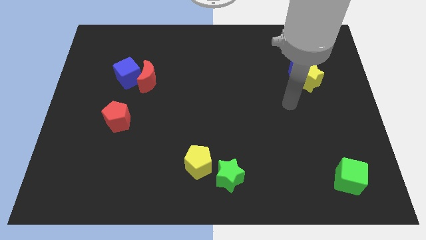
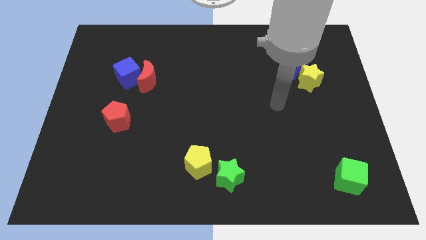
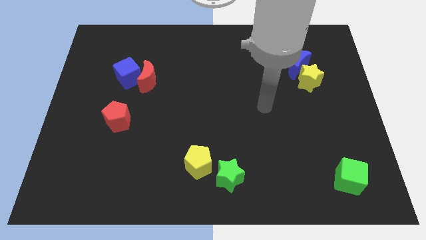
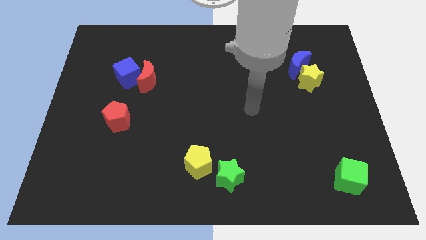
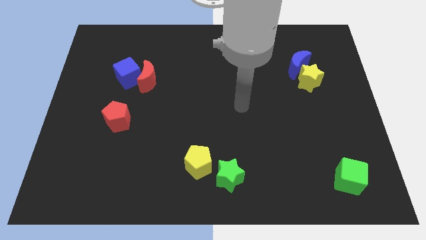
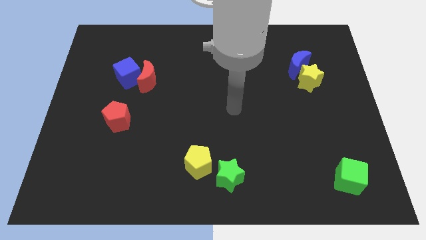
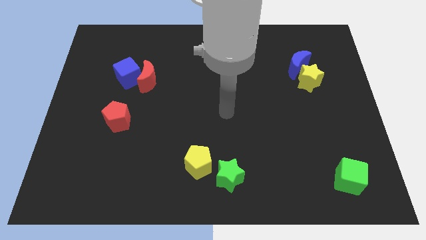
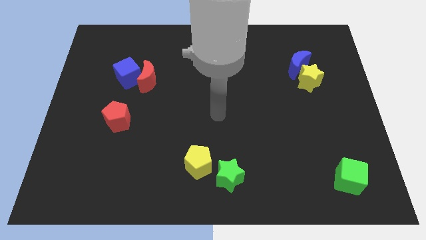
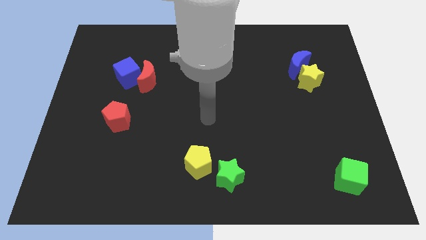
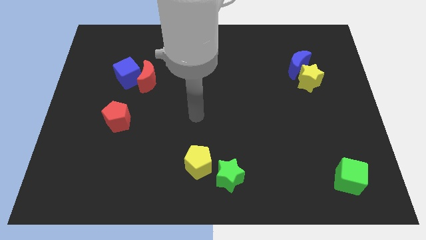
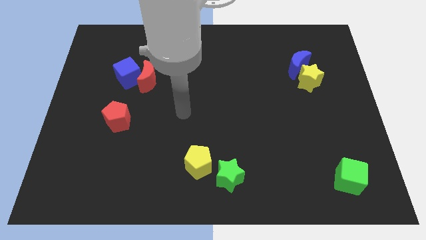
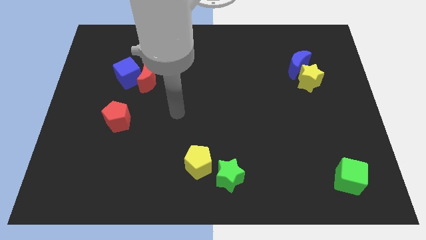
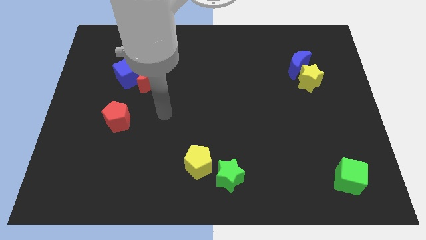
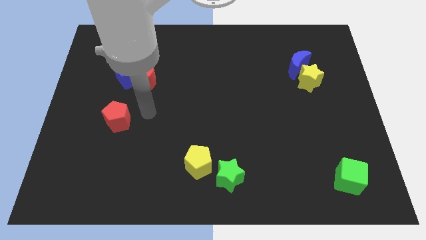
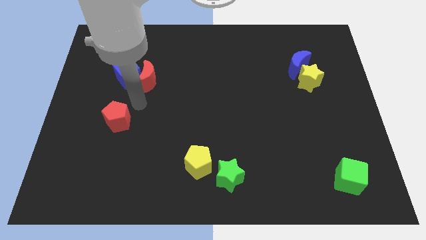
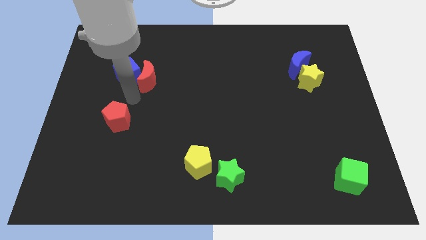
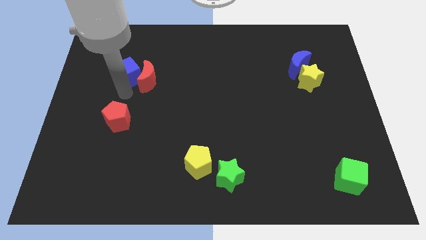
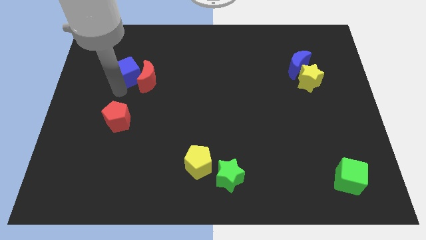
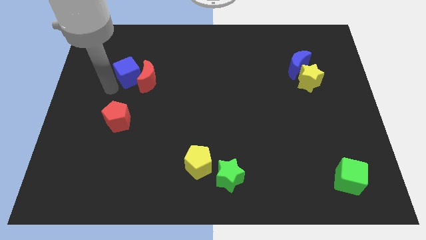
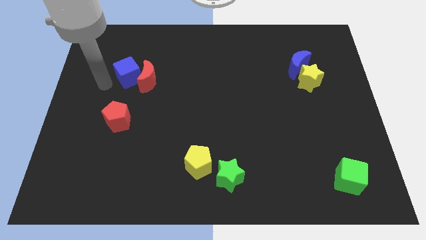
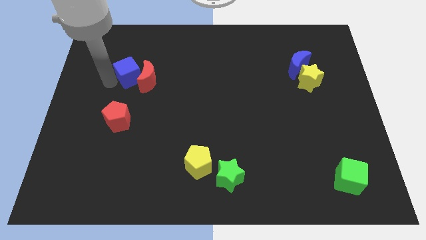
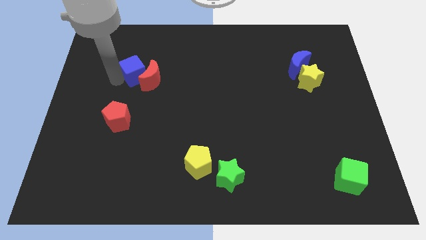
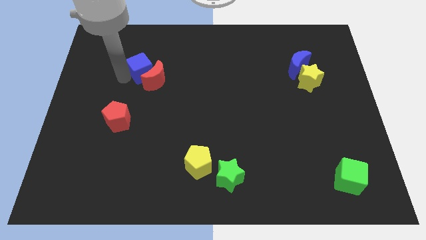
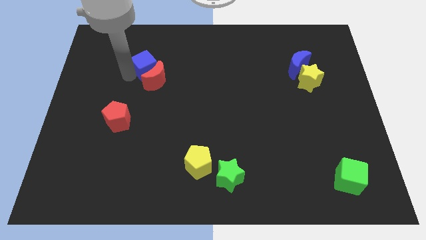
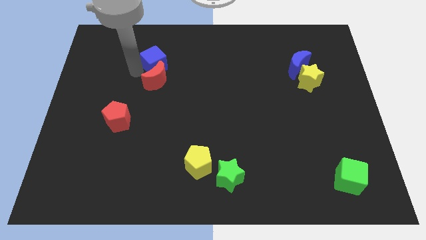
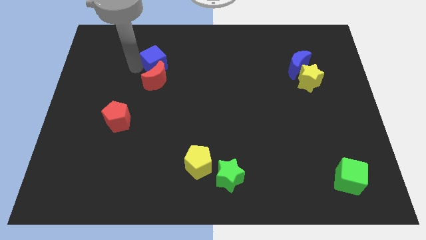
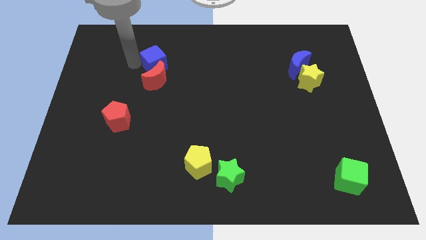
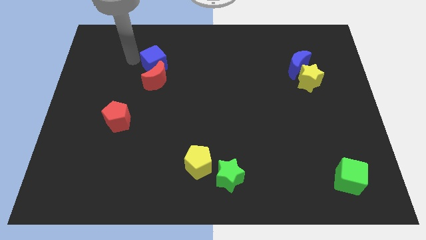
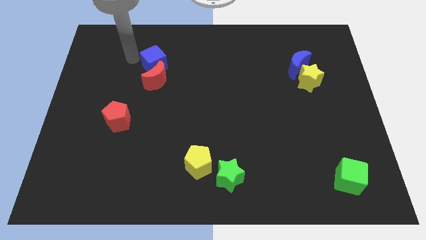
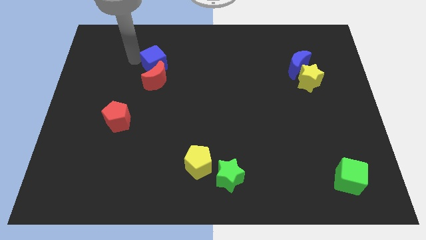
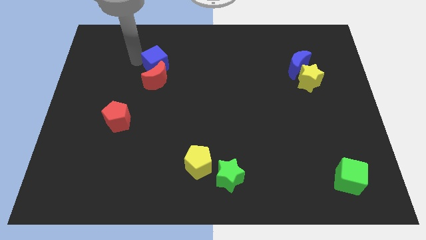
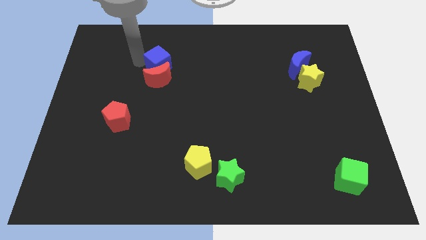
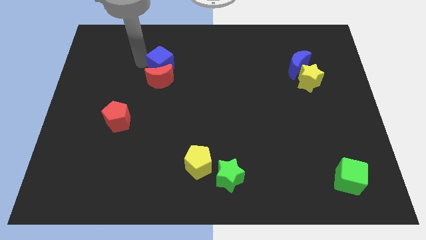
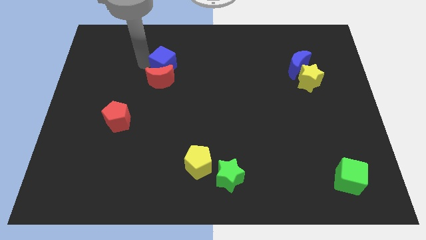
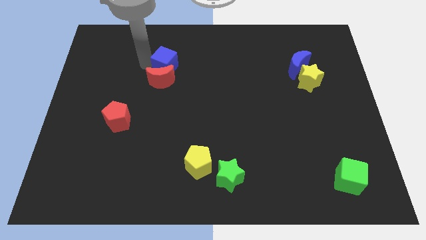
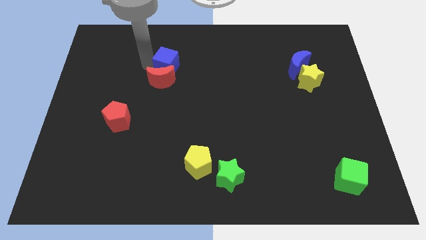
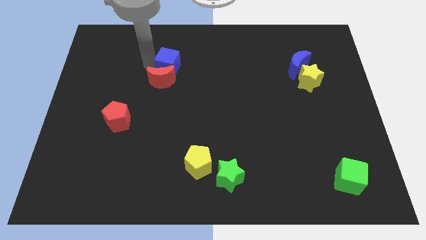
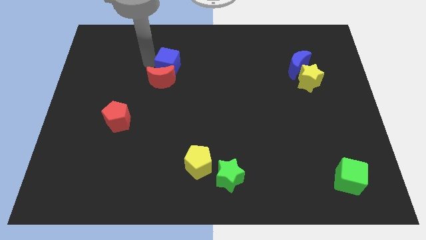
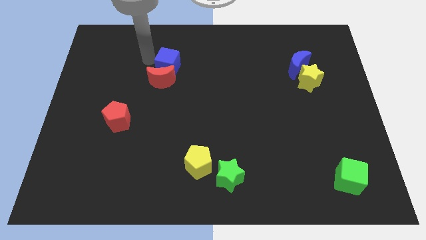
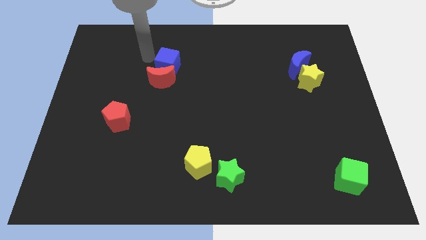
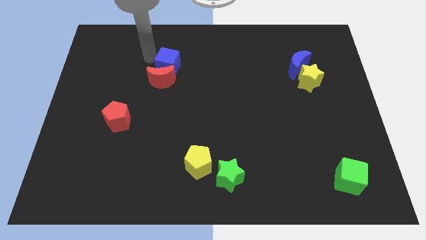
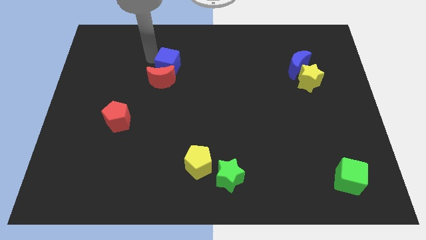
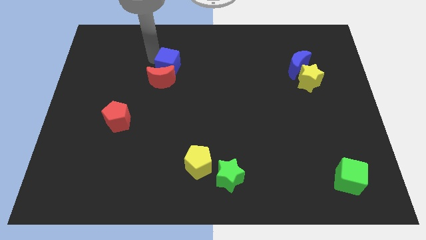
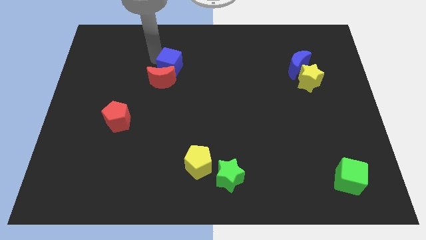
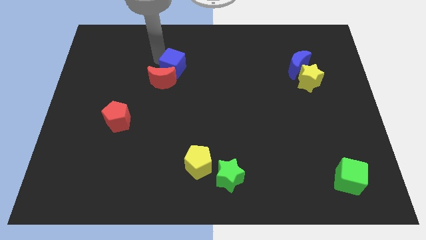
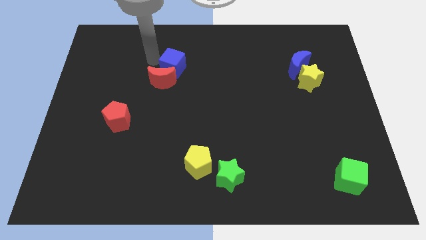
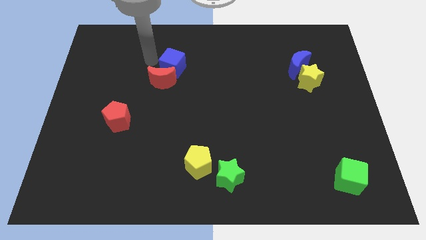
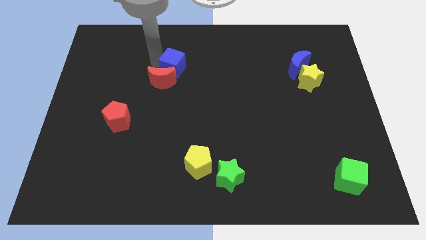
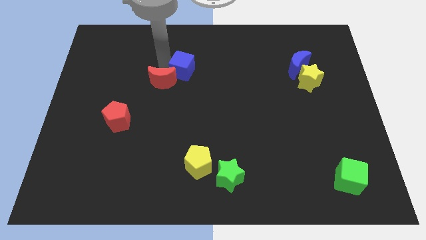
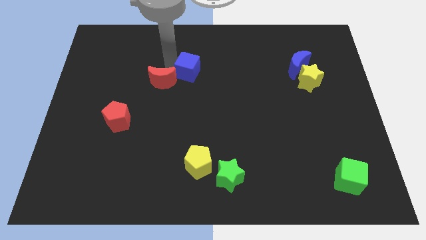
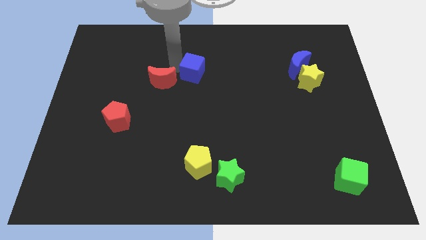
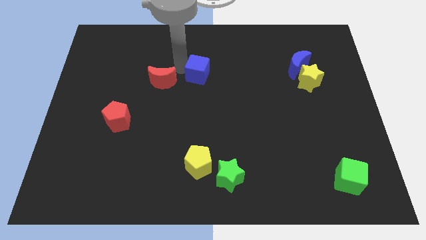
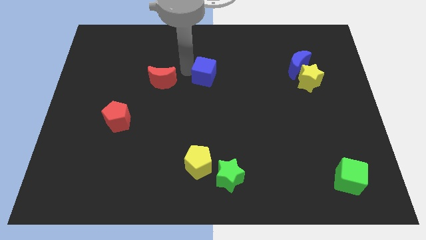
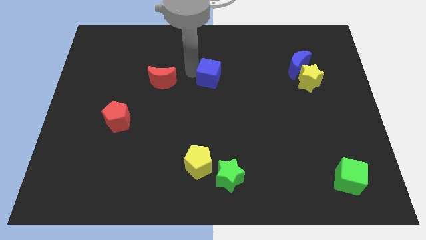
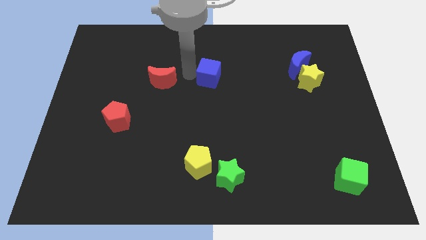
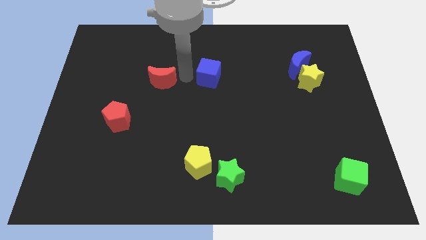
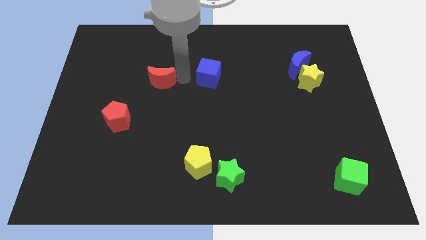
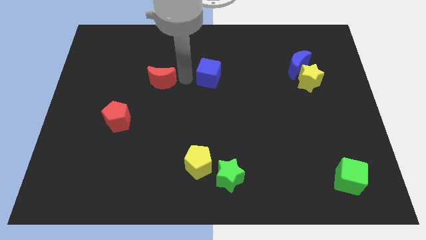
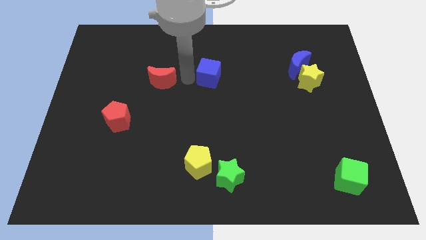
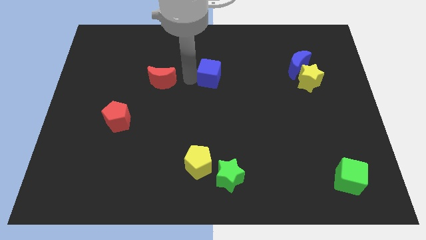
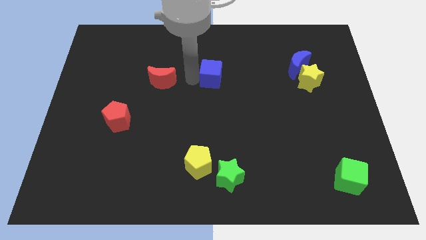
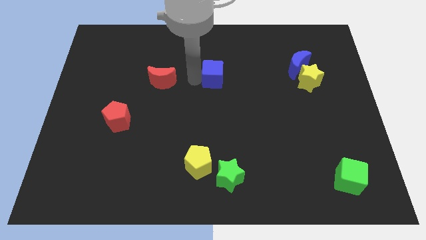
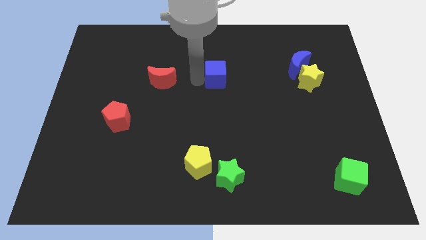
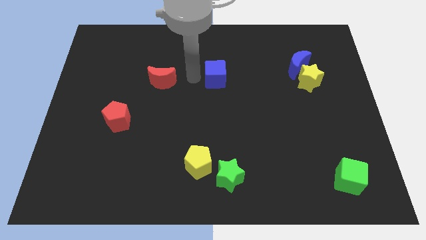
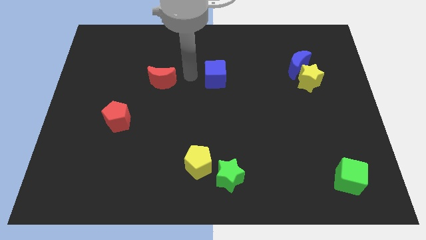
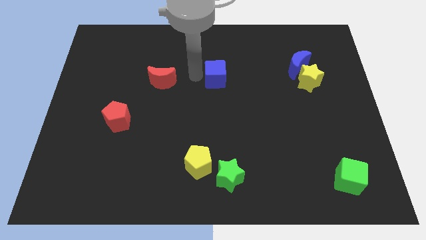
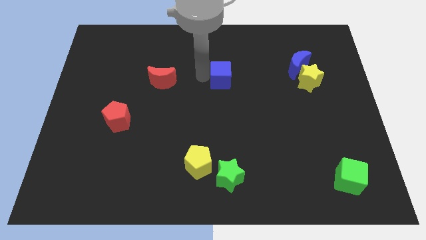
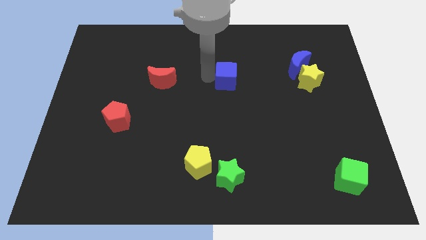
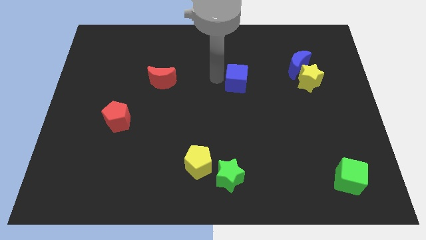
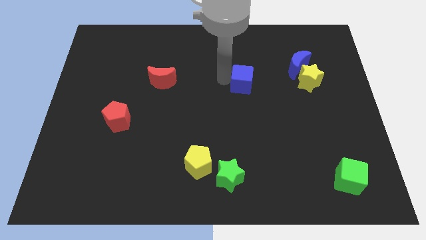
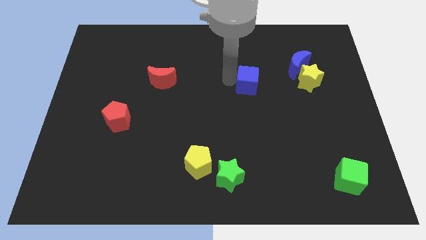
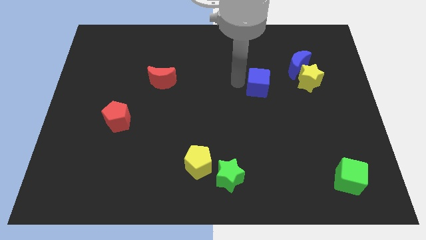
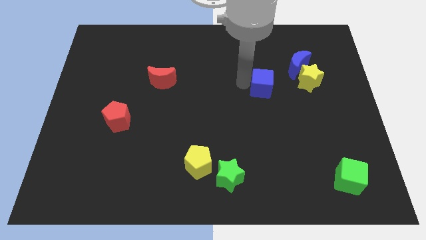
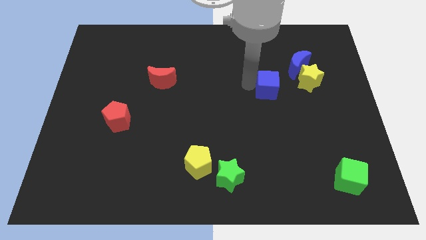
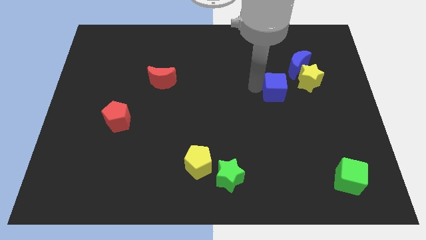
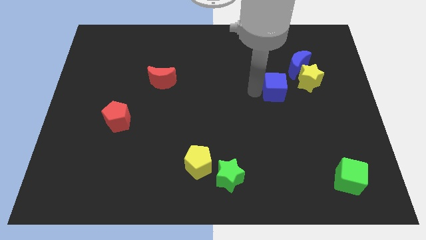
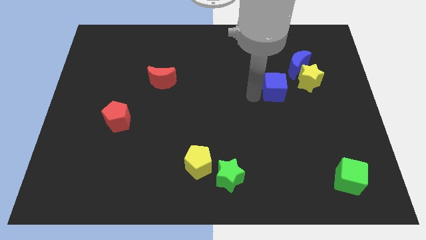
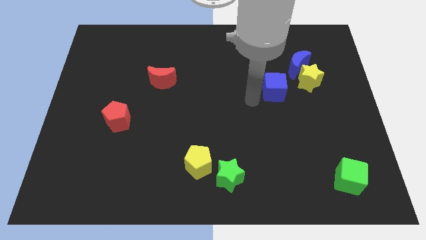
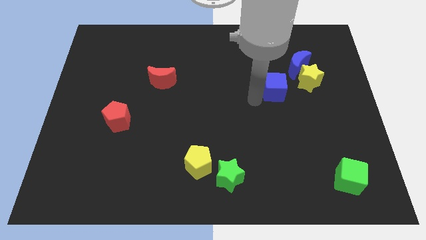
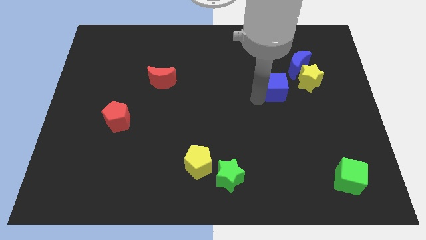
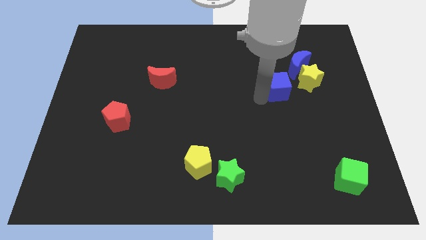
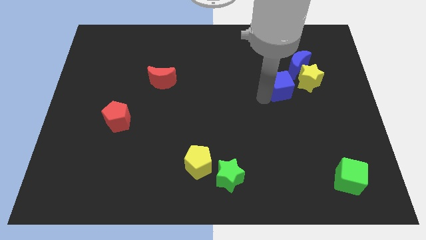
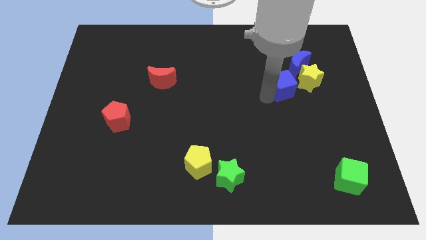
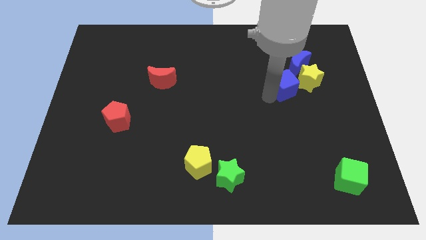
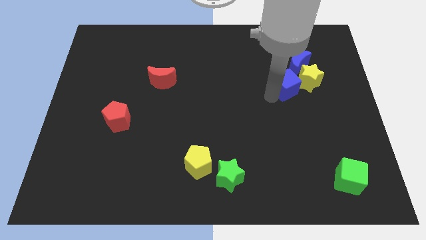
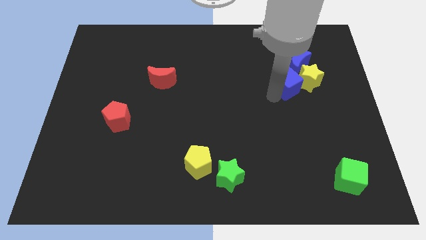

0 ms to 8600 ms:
put the blue cube to the yellow star
